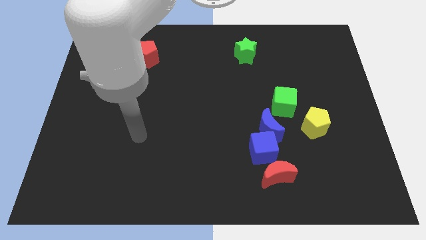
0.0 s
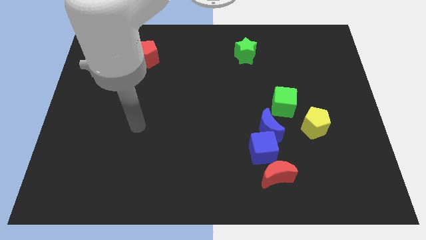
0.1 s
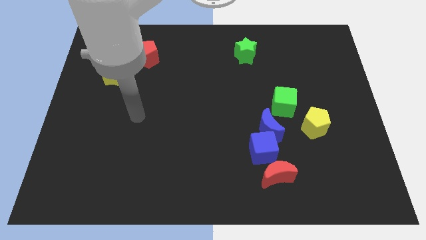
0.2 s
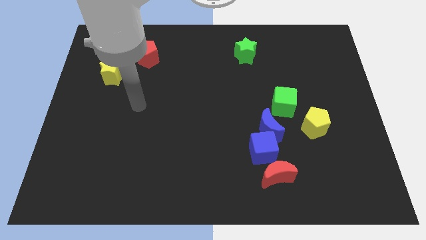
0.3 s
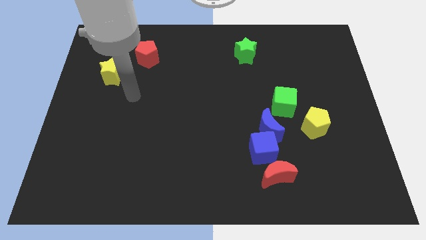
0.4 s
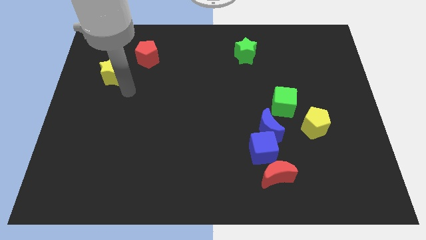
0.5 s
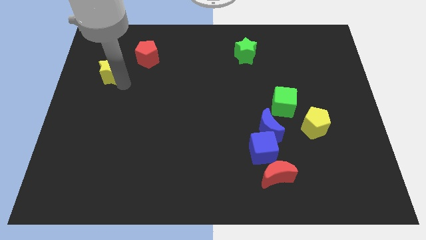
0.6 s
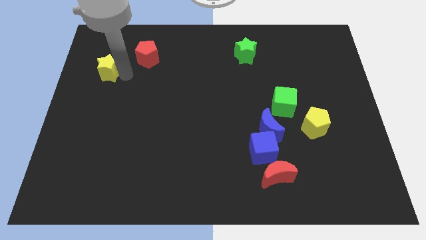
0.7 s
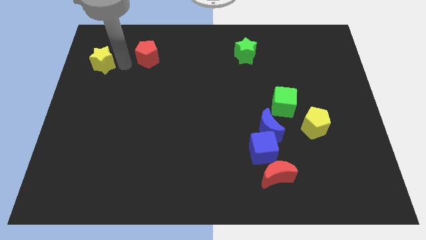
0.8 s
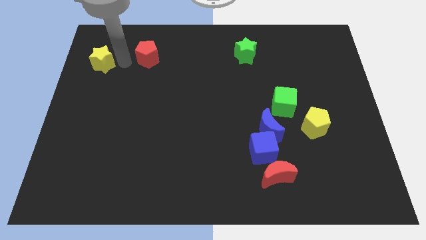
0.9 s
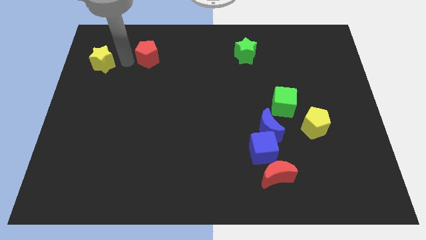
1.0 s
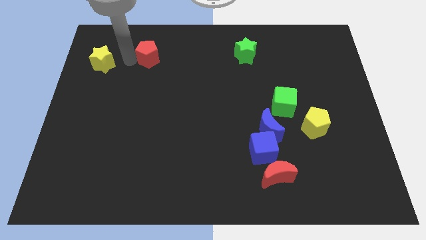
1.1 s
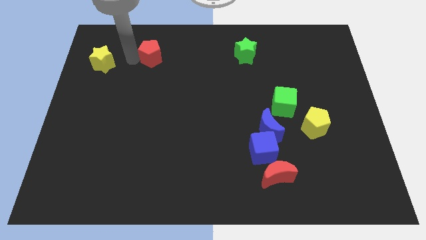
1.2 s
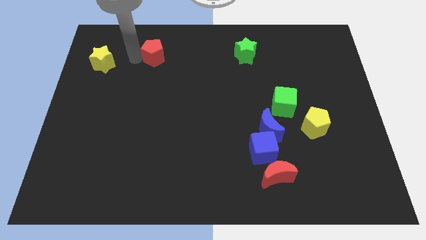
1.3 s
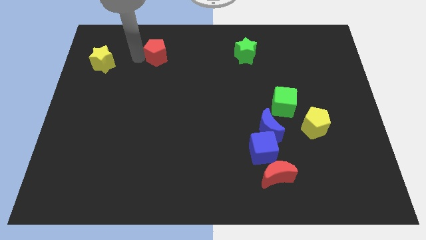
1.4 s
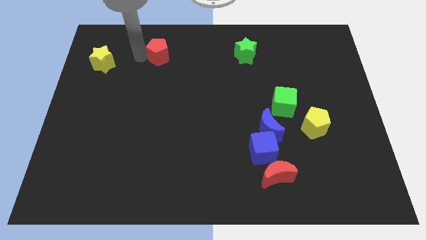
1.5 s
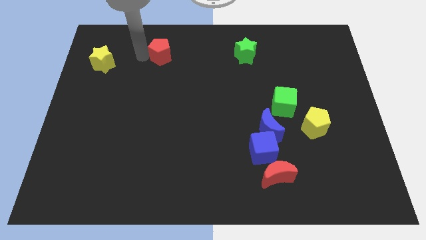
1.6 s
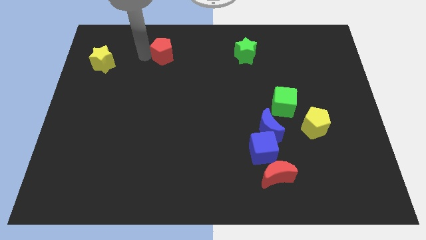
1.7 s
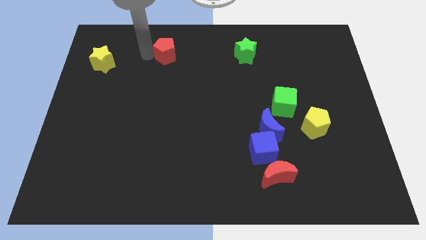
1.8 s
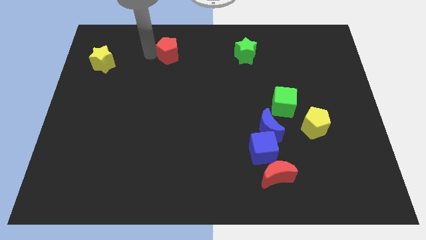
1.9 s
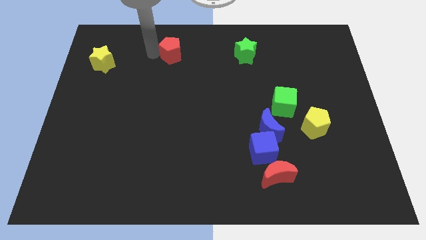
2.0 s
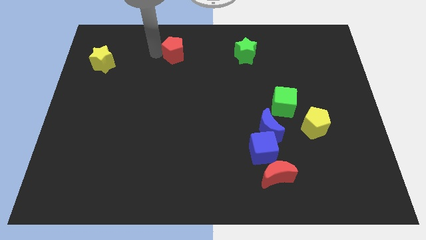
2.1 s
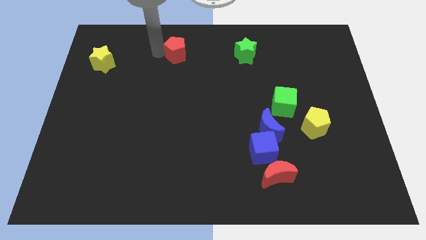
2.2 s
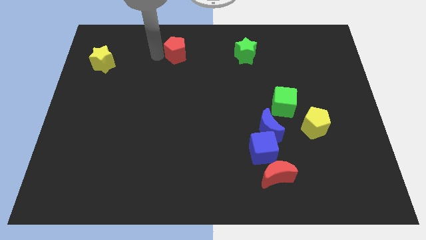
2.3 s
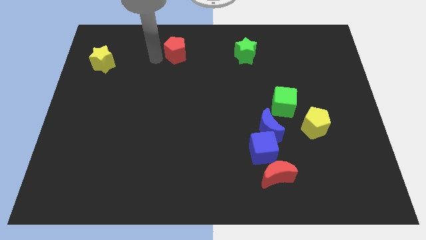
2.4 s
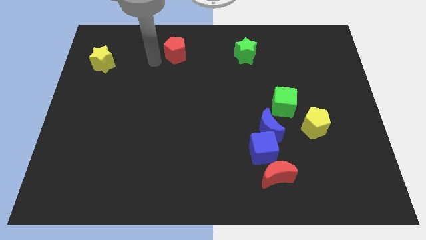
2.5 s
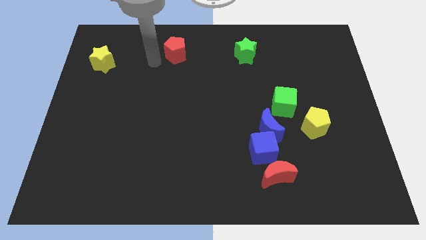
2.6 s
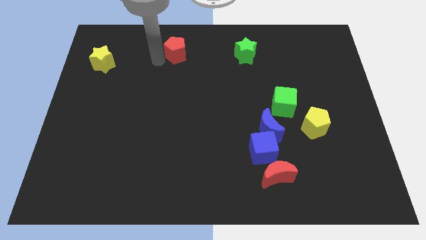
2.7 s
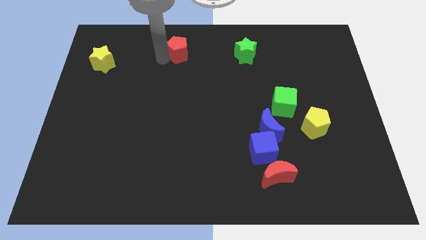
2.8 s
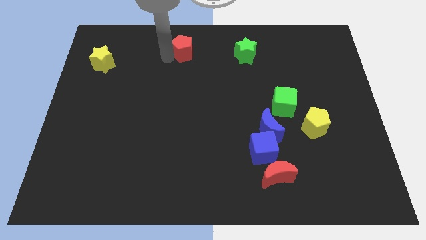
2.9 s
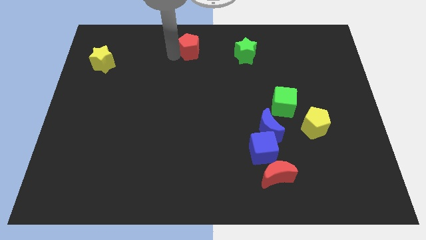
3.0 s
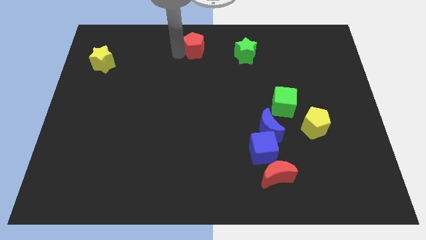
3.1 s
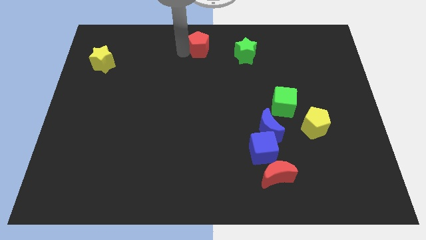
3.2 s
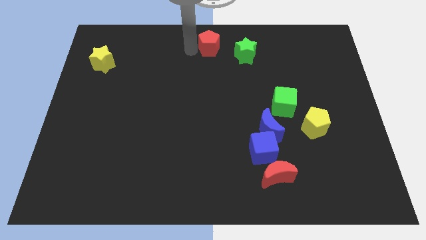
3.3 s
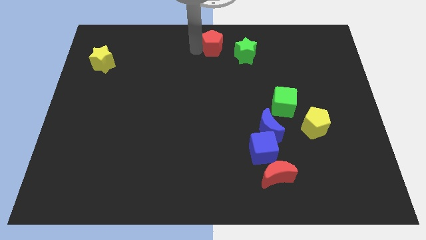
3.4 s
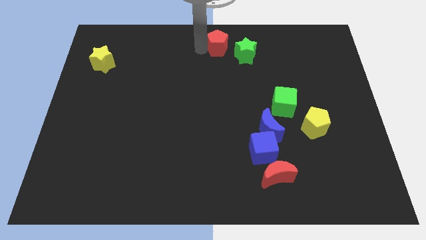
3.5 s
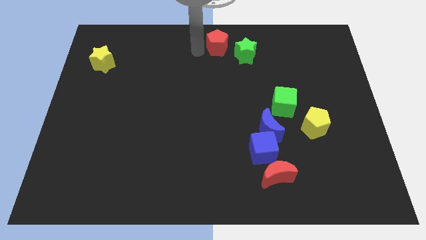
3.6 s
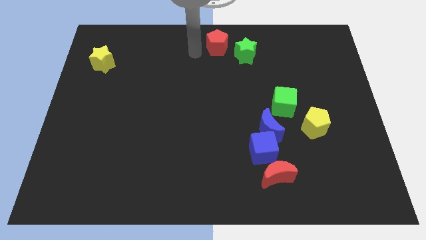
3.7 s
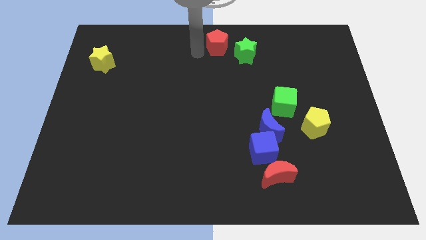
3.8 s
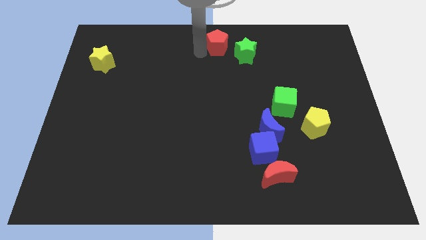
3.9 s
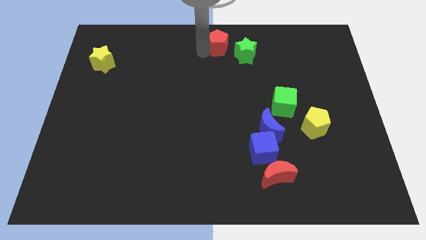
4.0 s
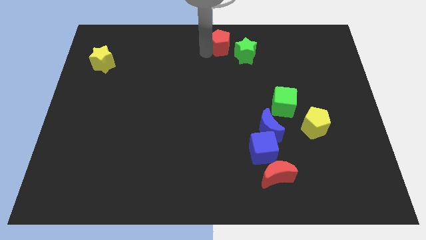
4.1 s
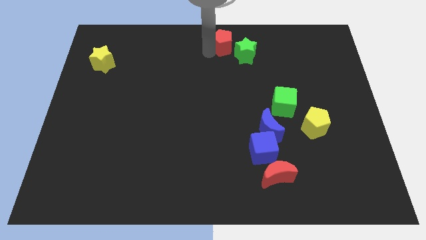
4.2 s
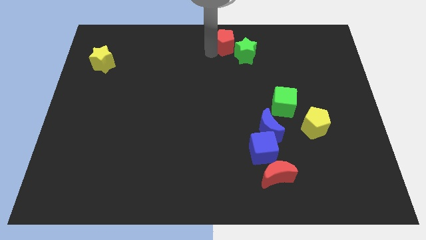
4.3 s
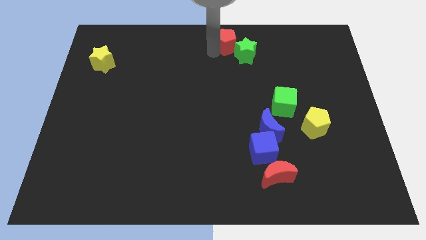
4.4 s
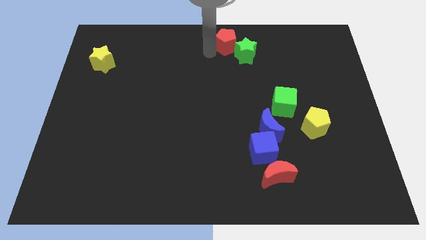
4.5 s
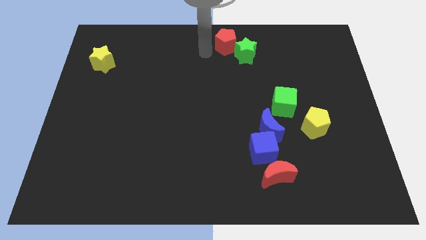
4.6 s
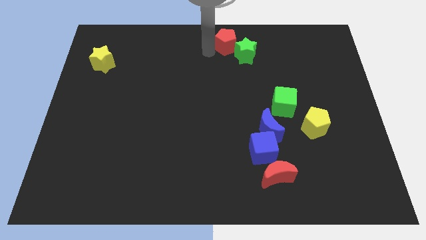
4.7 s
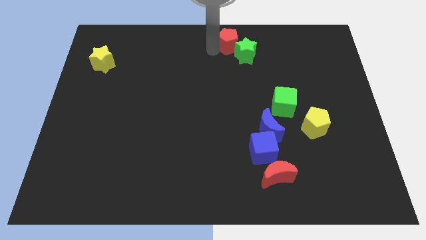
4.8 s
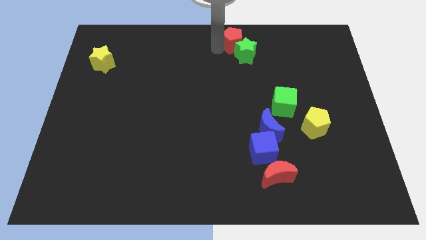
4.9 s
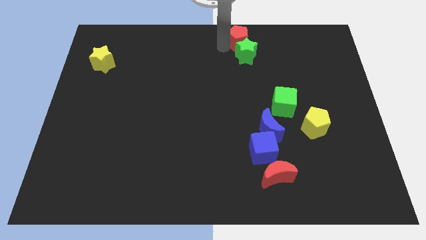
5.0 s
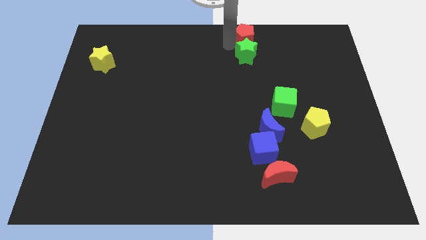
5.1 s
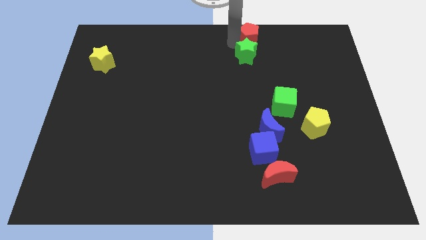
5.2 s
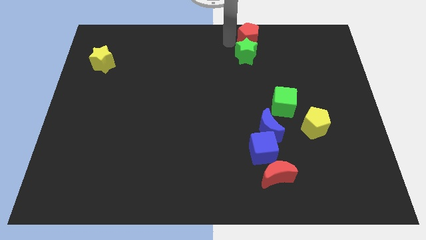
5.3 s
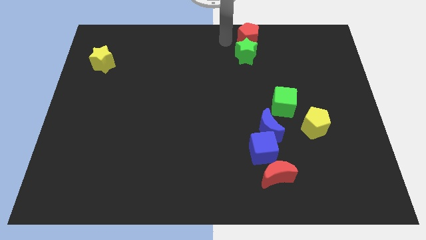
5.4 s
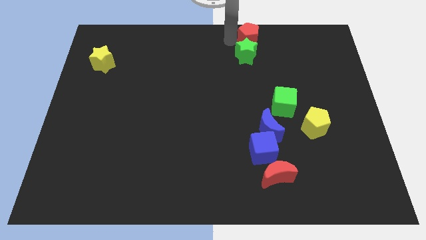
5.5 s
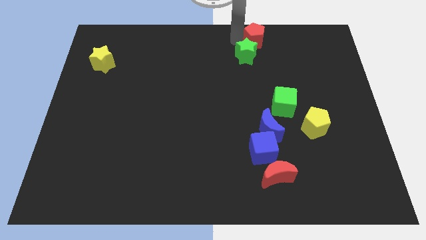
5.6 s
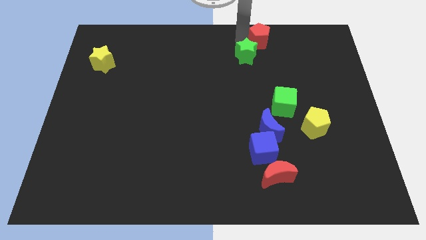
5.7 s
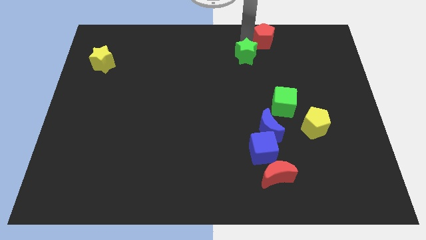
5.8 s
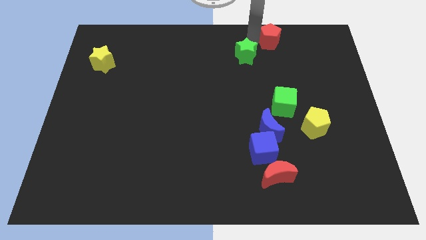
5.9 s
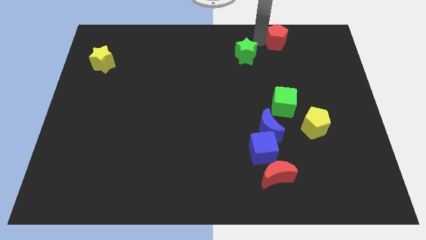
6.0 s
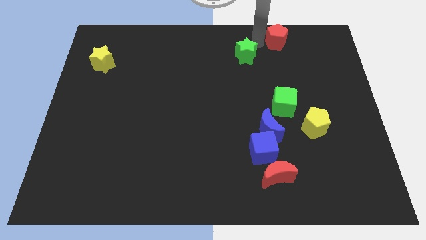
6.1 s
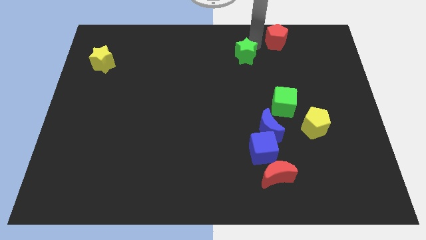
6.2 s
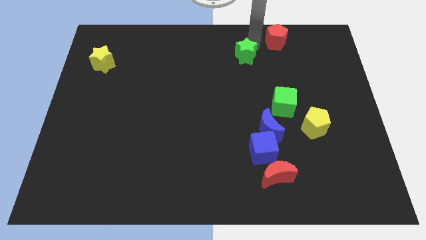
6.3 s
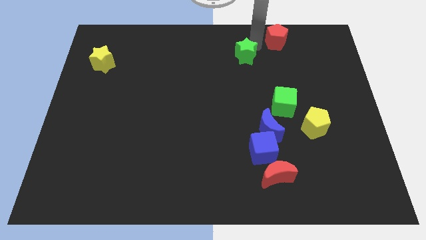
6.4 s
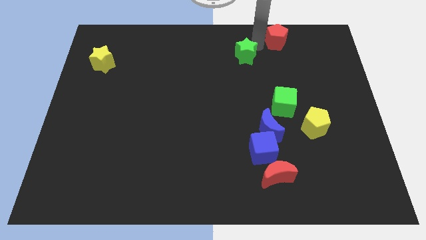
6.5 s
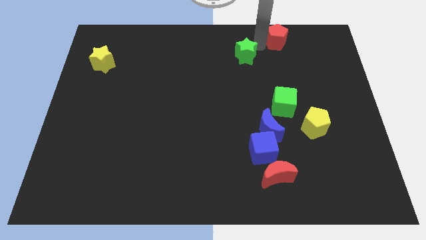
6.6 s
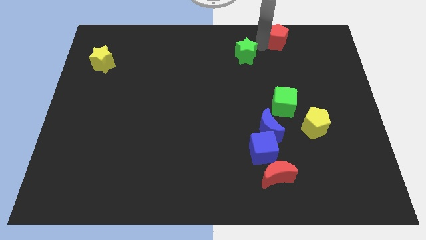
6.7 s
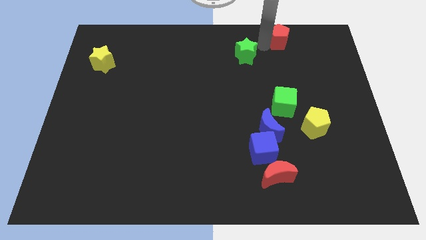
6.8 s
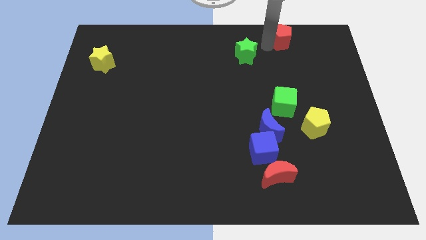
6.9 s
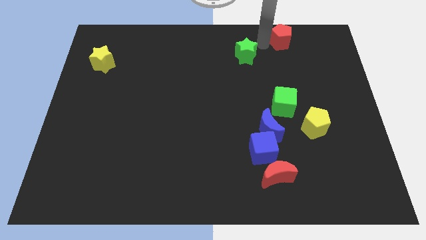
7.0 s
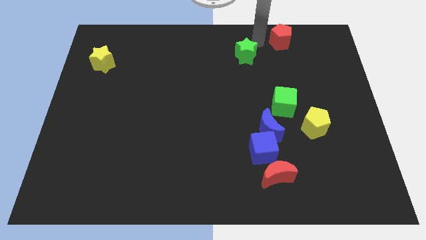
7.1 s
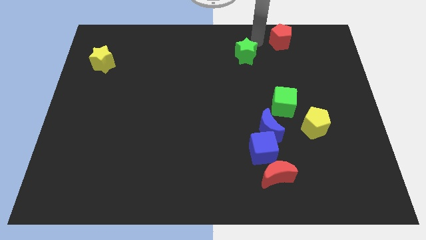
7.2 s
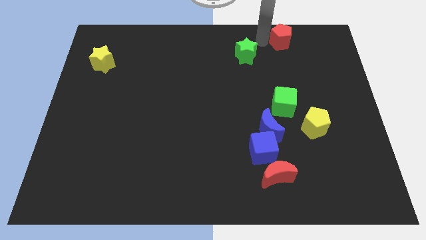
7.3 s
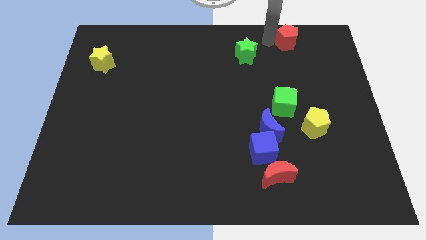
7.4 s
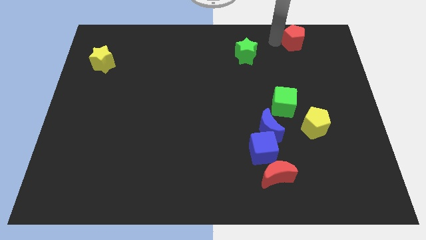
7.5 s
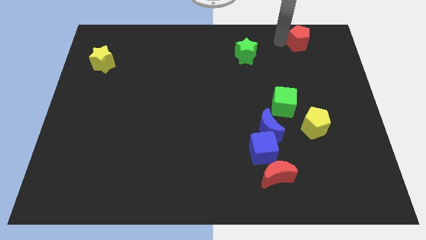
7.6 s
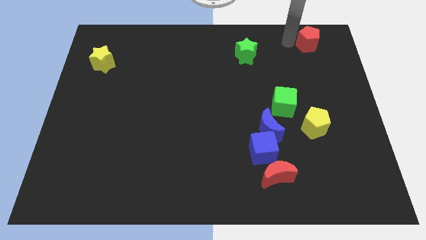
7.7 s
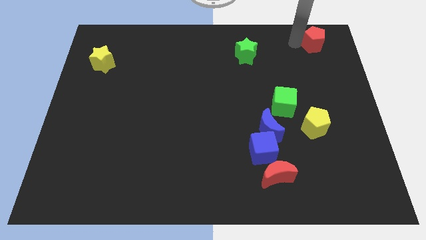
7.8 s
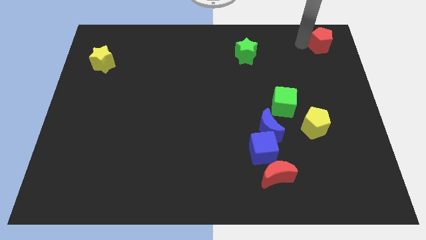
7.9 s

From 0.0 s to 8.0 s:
put the red pentagon to the top right of the board
